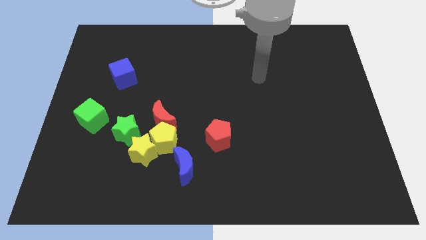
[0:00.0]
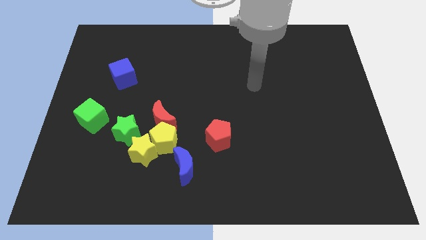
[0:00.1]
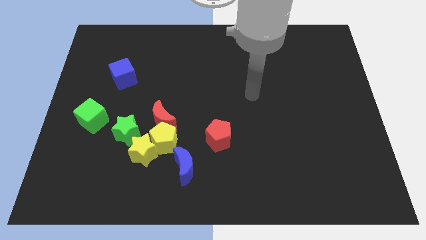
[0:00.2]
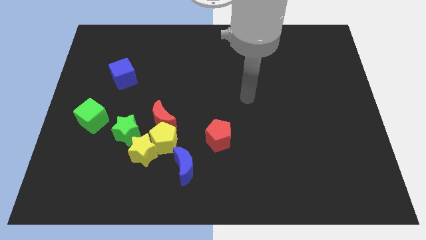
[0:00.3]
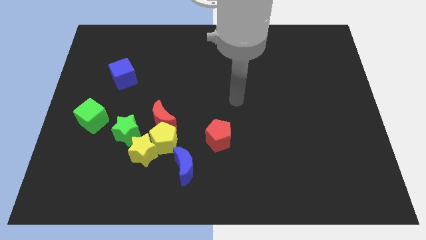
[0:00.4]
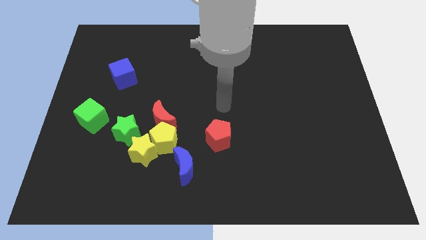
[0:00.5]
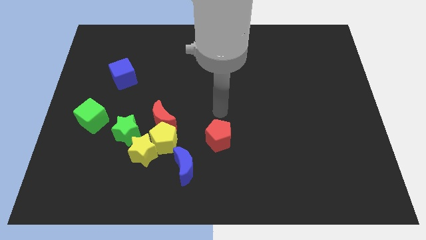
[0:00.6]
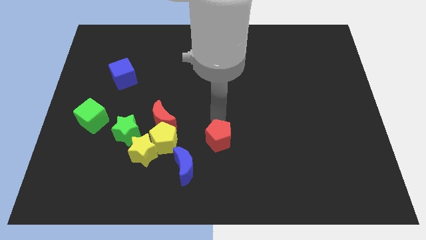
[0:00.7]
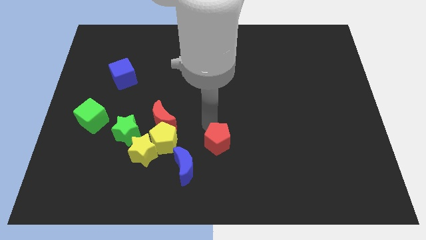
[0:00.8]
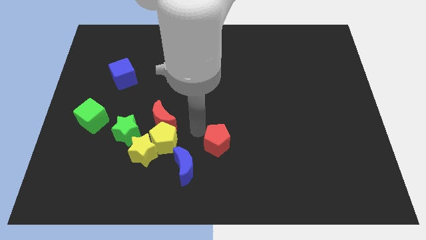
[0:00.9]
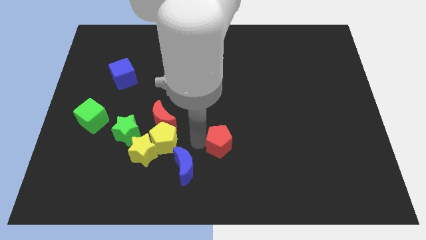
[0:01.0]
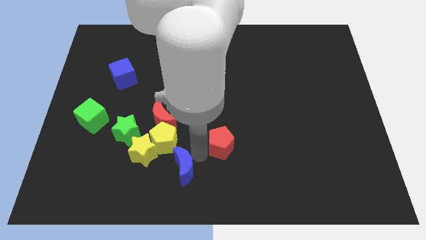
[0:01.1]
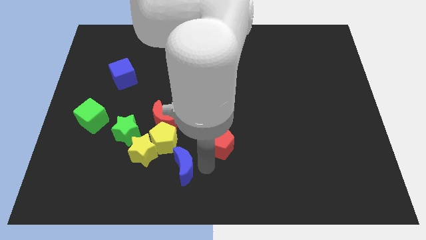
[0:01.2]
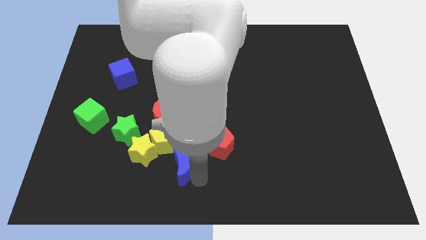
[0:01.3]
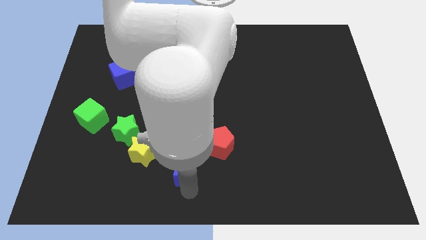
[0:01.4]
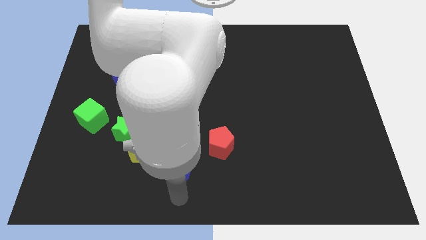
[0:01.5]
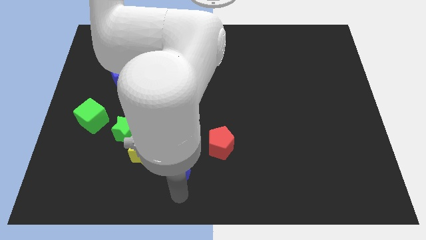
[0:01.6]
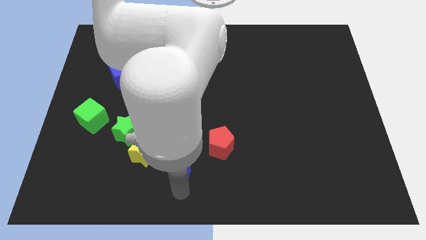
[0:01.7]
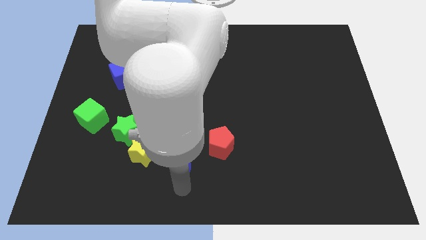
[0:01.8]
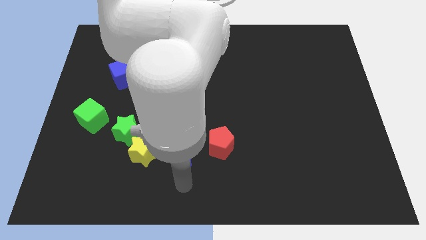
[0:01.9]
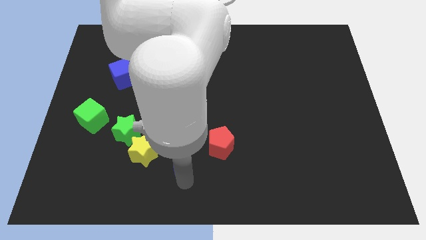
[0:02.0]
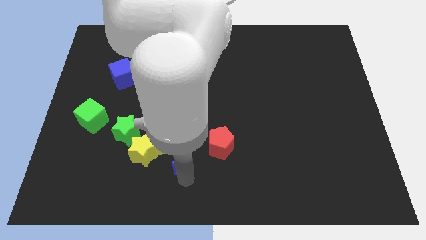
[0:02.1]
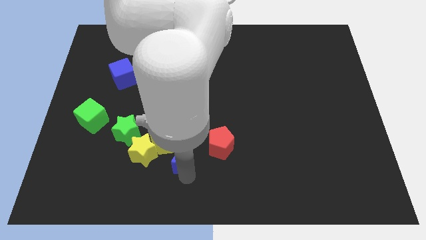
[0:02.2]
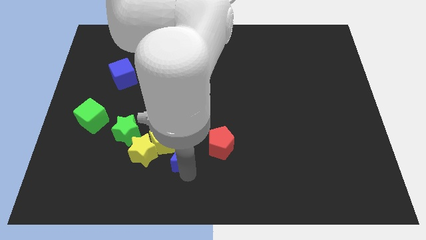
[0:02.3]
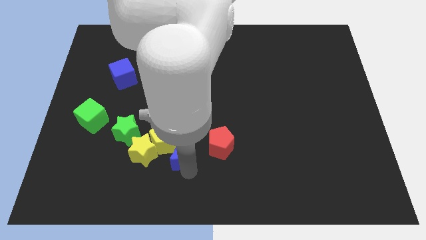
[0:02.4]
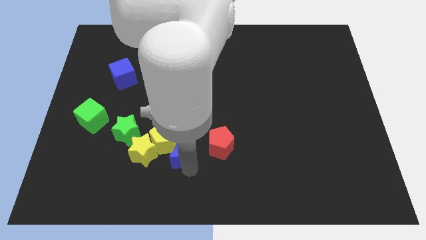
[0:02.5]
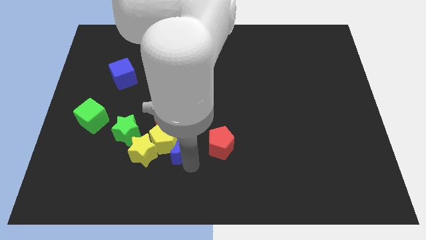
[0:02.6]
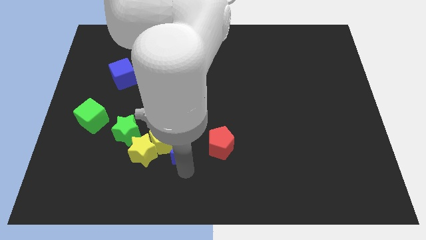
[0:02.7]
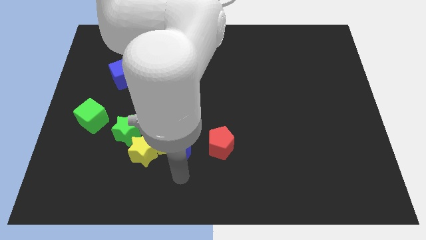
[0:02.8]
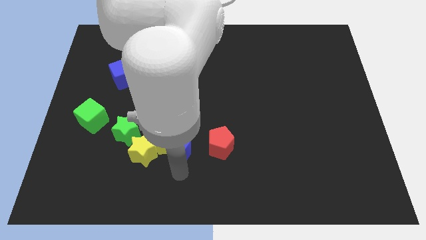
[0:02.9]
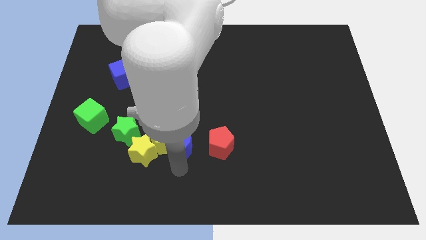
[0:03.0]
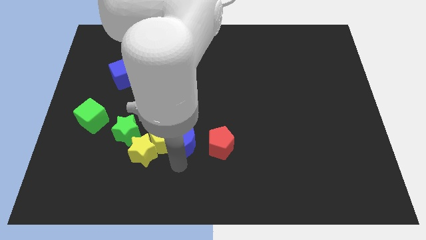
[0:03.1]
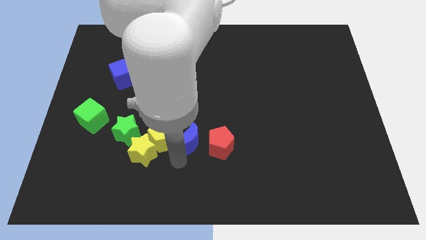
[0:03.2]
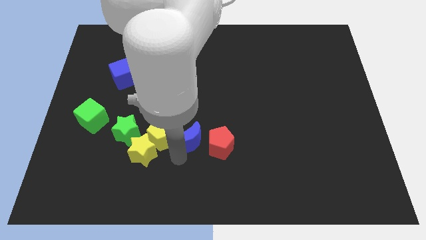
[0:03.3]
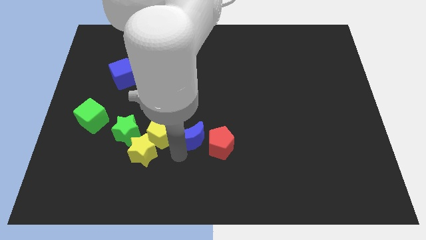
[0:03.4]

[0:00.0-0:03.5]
move the blue moon upwards a little

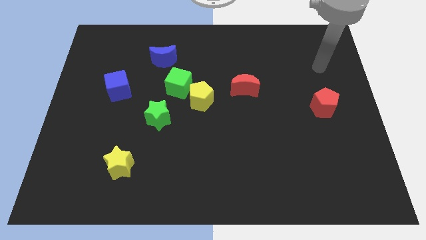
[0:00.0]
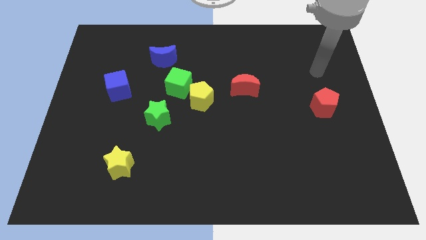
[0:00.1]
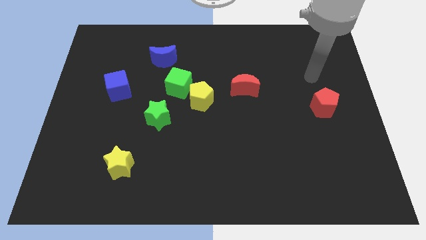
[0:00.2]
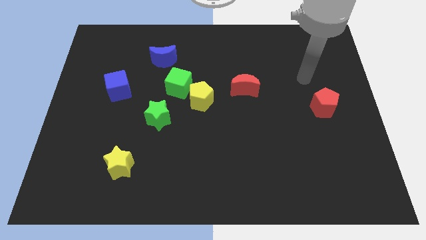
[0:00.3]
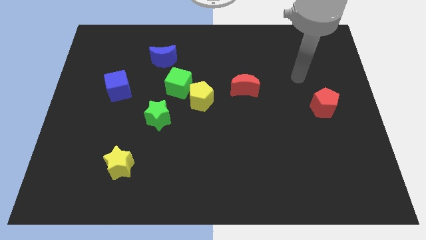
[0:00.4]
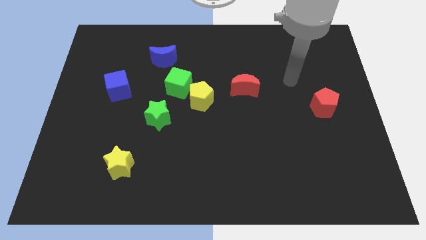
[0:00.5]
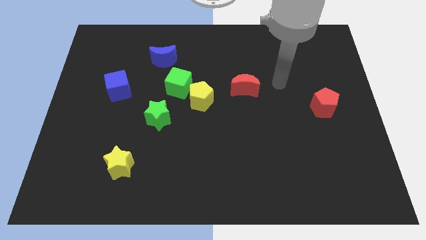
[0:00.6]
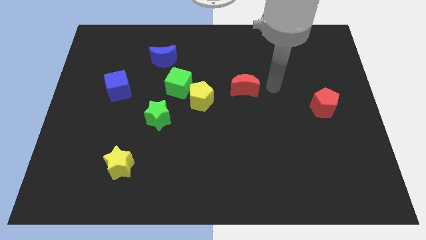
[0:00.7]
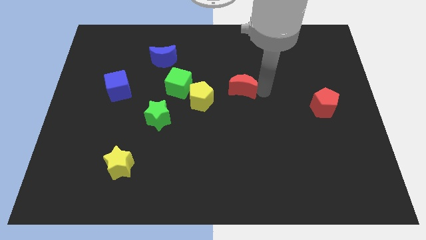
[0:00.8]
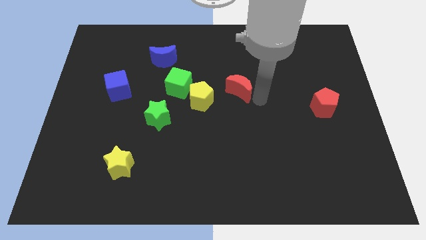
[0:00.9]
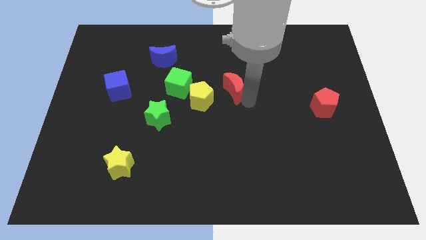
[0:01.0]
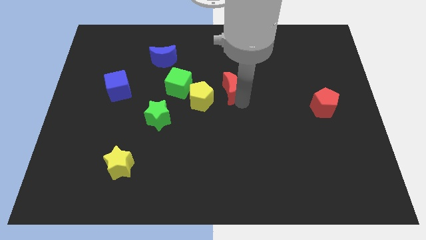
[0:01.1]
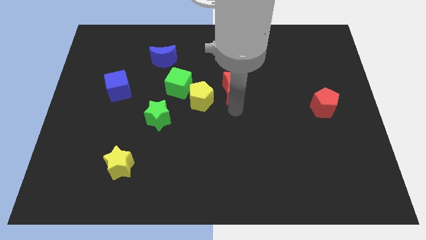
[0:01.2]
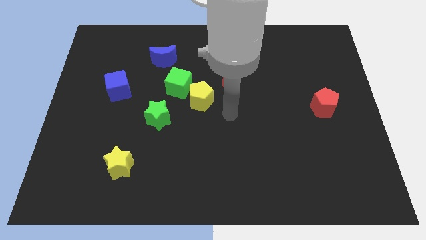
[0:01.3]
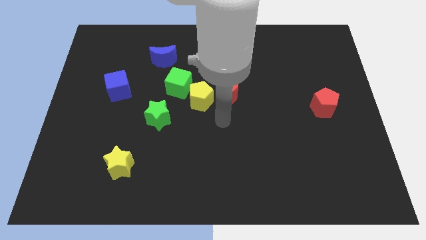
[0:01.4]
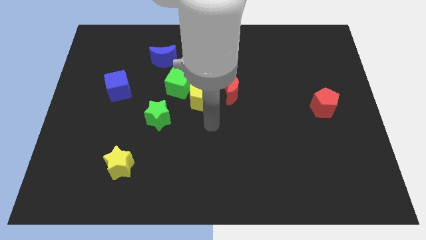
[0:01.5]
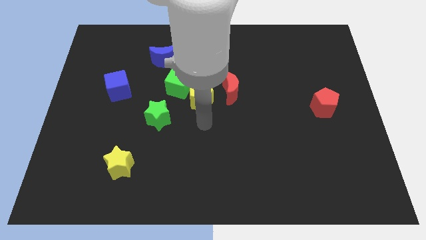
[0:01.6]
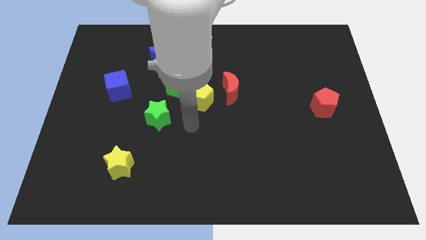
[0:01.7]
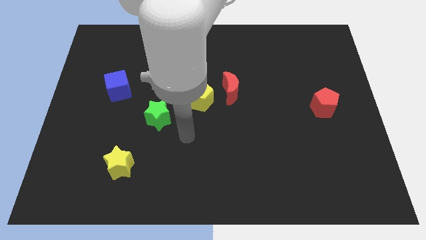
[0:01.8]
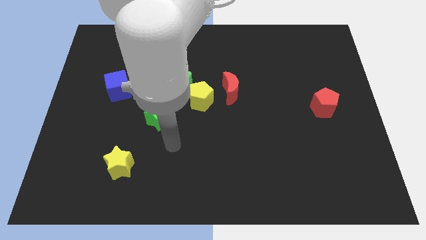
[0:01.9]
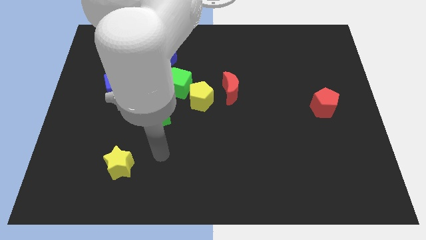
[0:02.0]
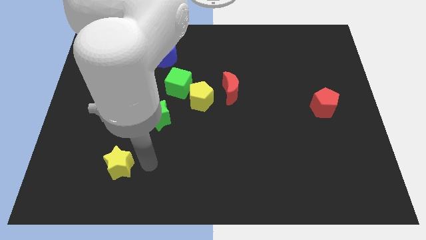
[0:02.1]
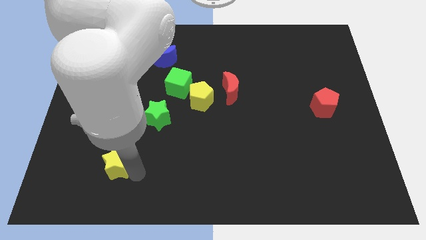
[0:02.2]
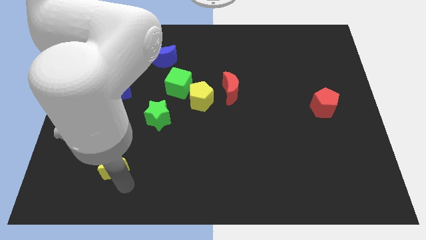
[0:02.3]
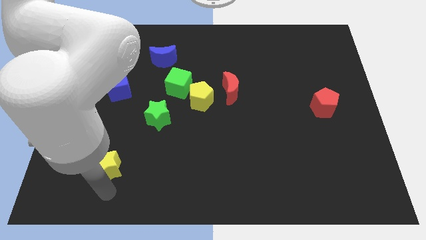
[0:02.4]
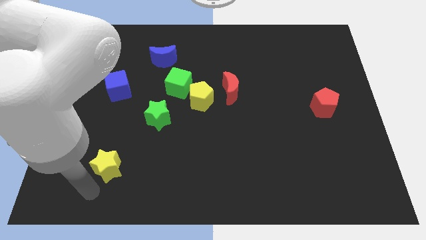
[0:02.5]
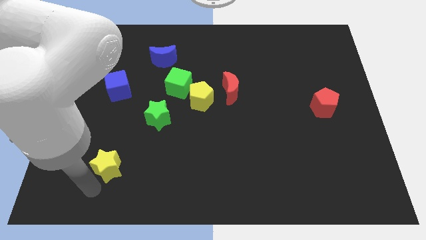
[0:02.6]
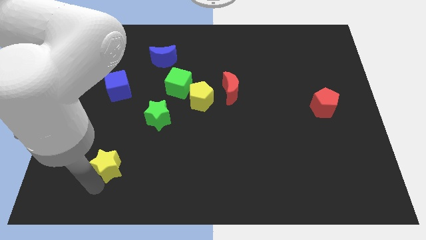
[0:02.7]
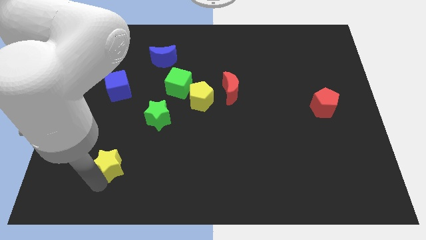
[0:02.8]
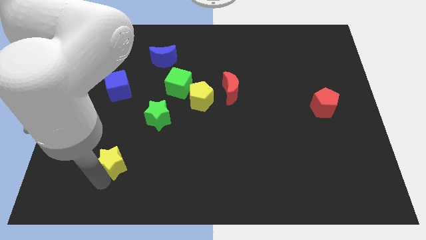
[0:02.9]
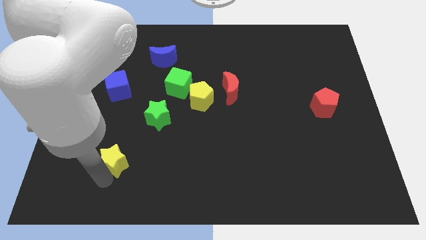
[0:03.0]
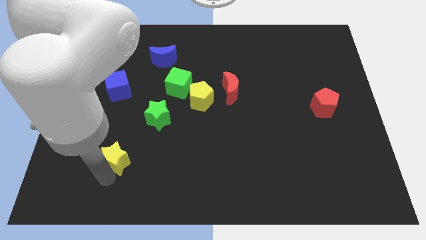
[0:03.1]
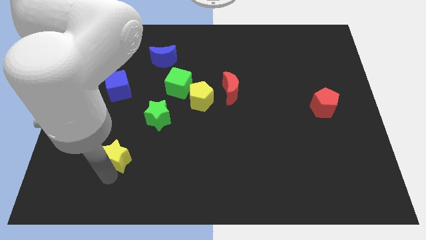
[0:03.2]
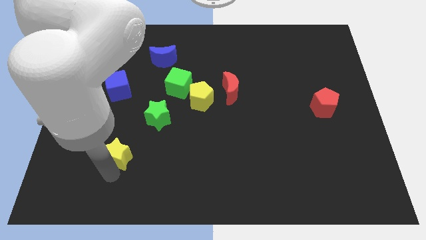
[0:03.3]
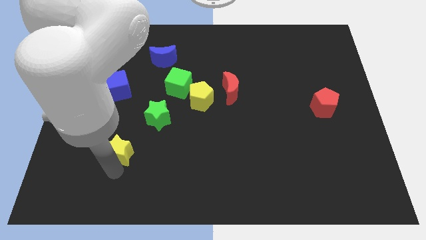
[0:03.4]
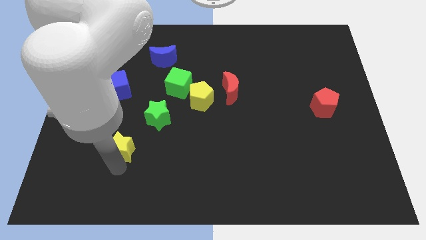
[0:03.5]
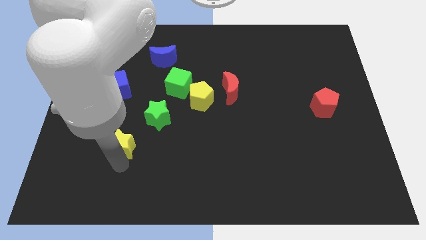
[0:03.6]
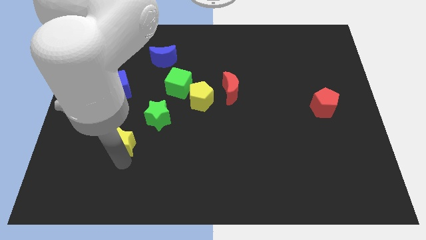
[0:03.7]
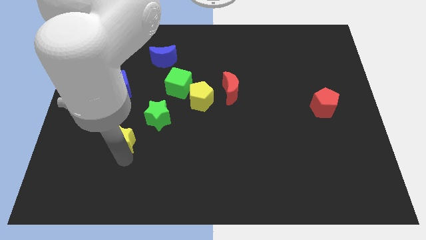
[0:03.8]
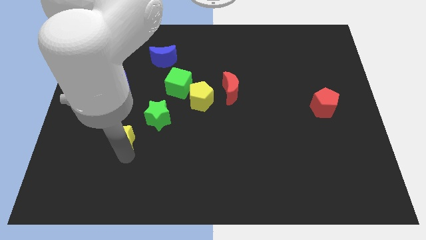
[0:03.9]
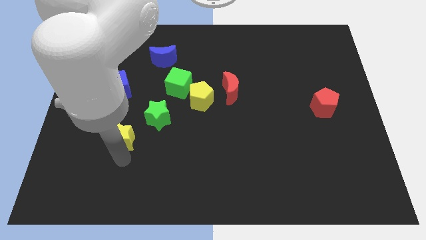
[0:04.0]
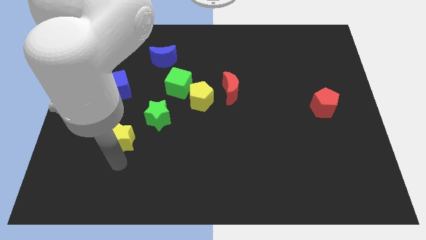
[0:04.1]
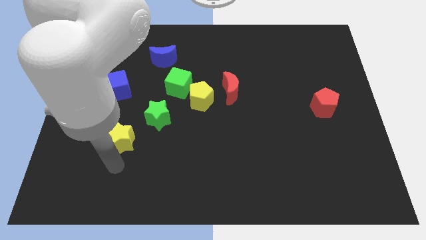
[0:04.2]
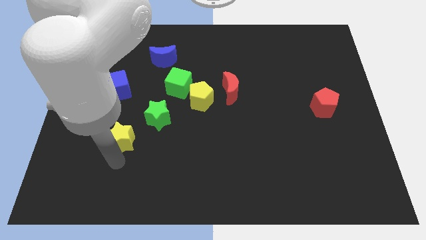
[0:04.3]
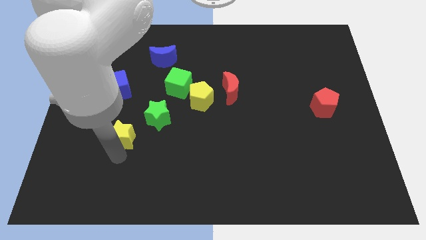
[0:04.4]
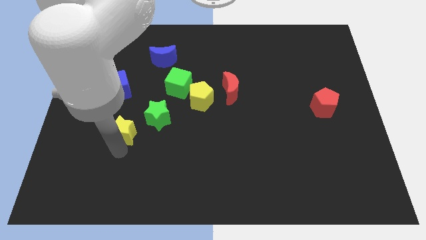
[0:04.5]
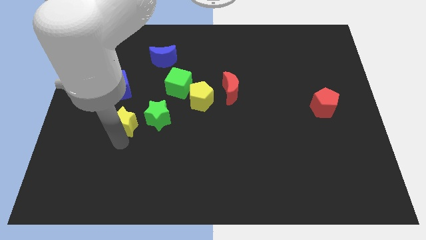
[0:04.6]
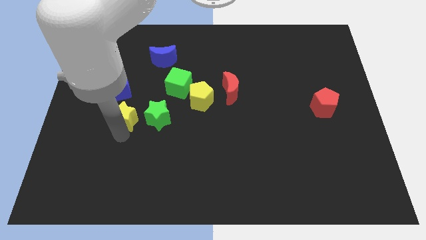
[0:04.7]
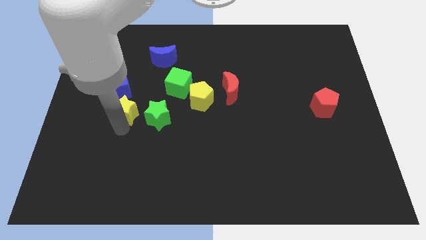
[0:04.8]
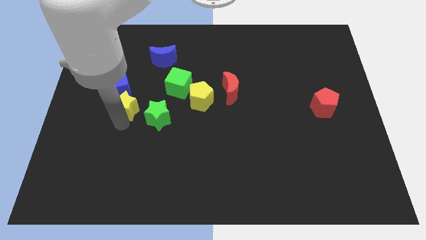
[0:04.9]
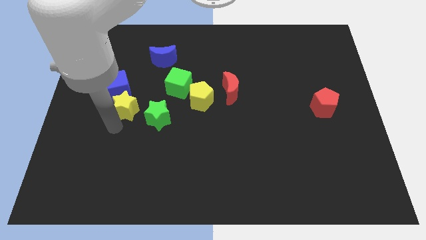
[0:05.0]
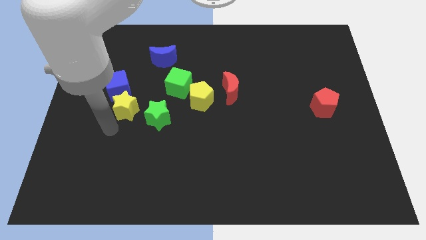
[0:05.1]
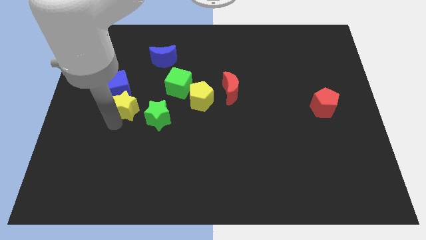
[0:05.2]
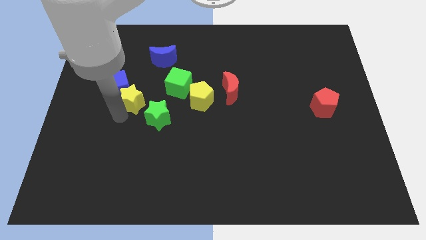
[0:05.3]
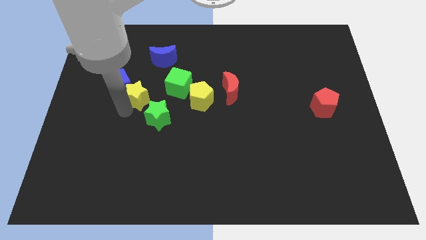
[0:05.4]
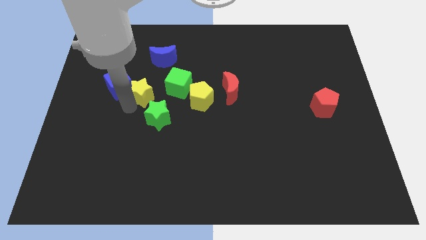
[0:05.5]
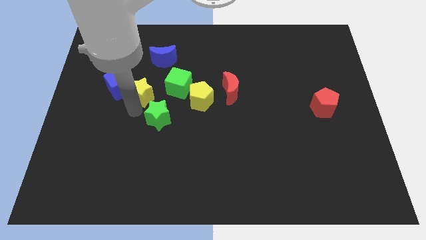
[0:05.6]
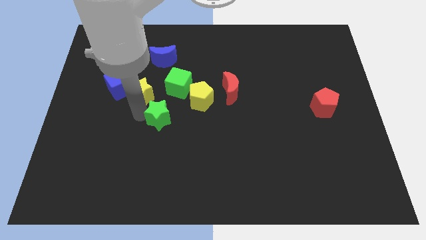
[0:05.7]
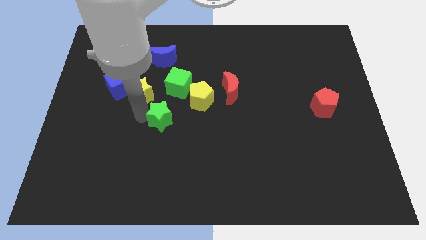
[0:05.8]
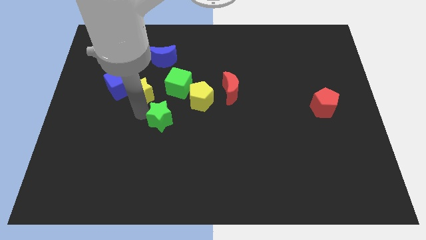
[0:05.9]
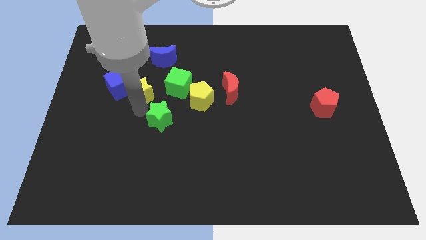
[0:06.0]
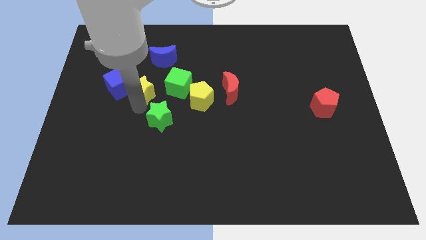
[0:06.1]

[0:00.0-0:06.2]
slide the yellow star upwards
